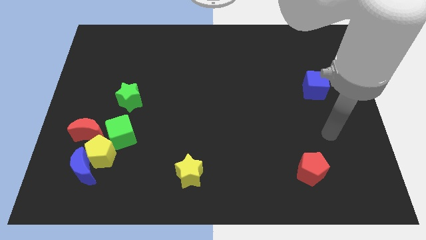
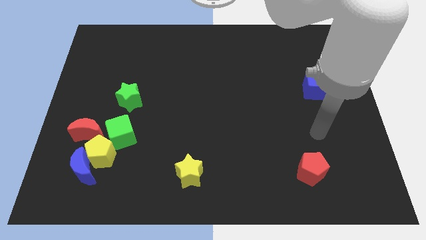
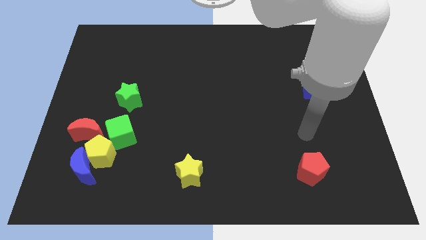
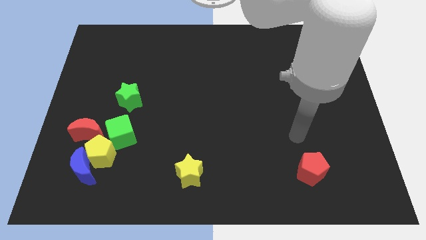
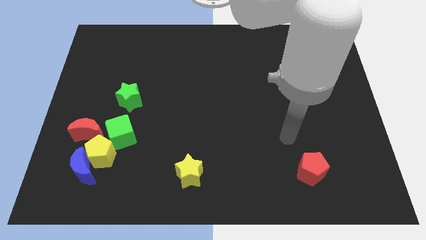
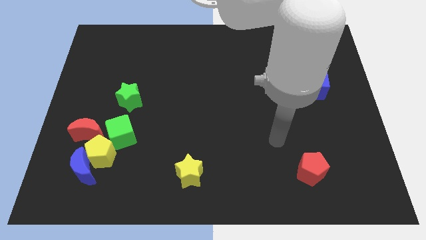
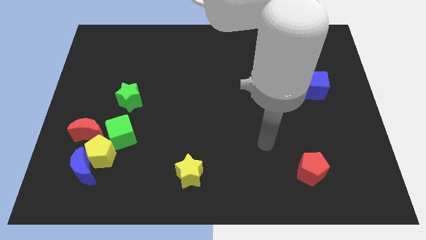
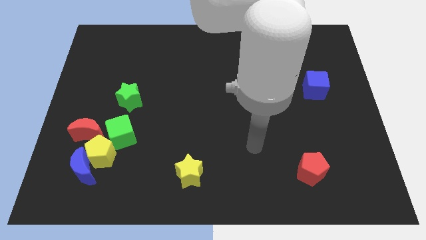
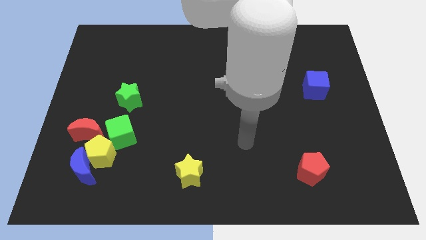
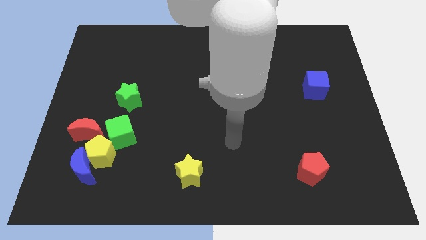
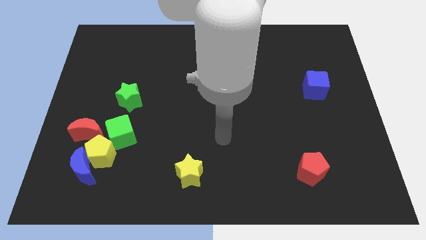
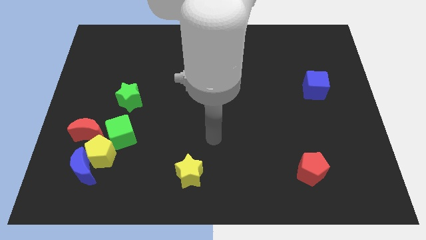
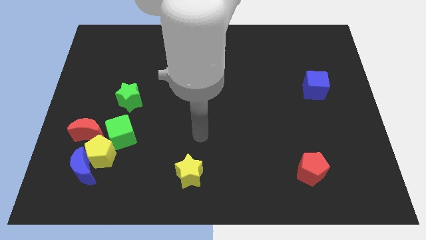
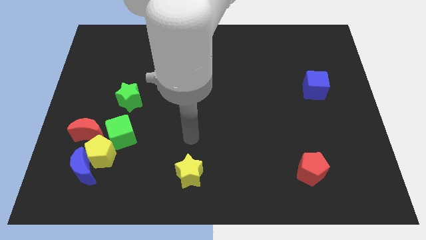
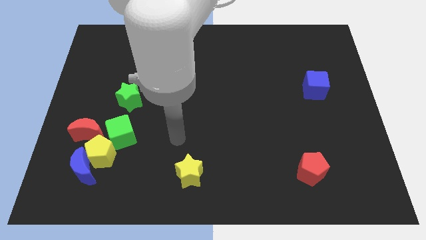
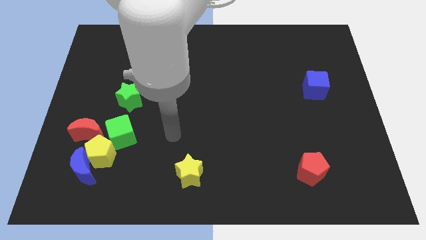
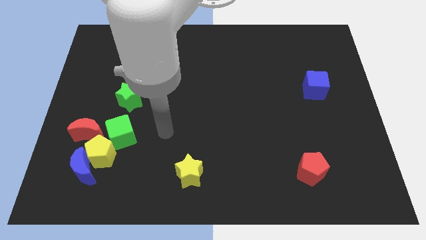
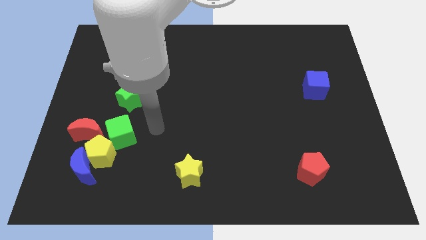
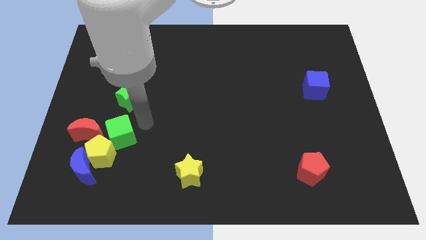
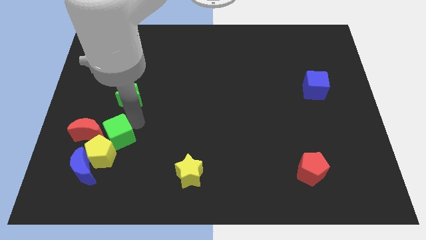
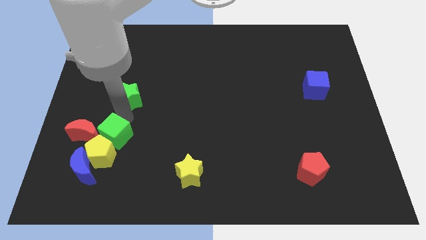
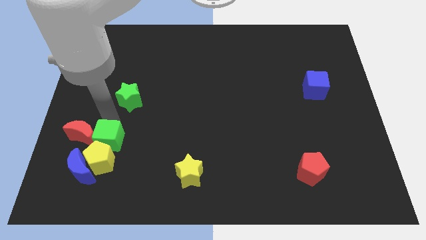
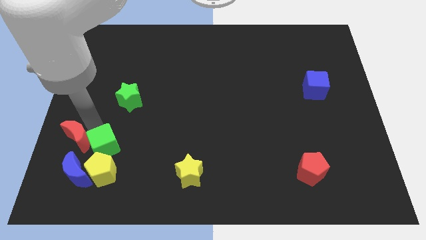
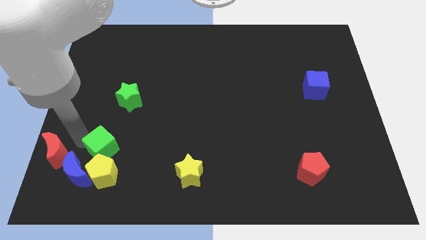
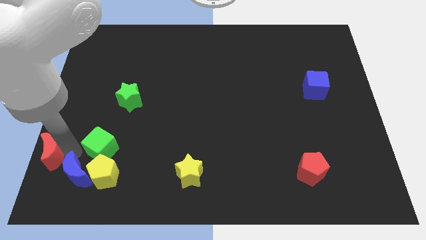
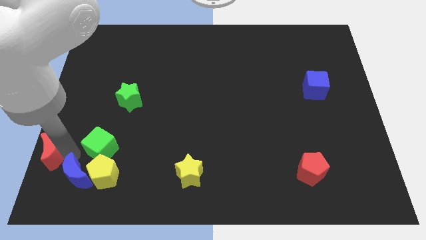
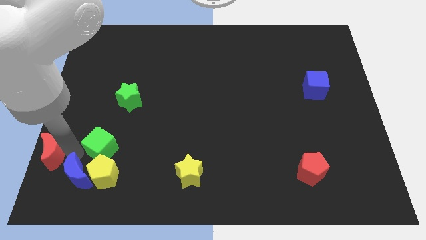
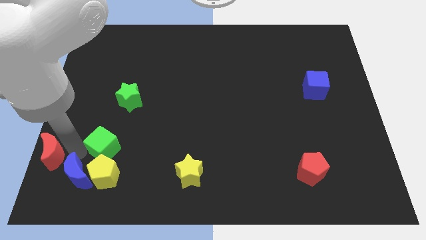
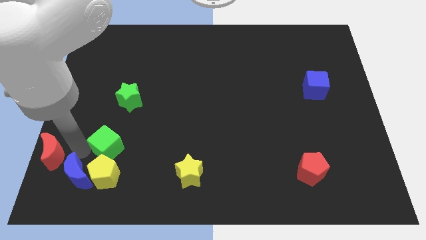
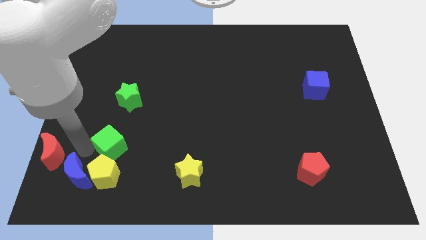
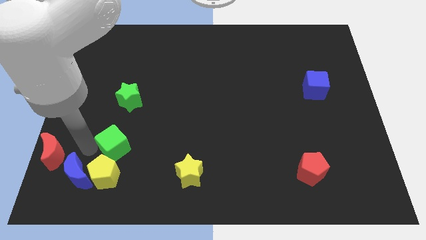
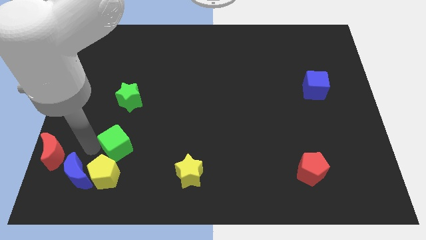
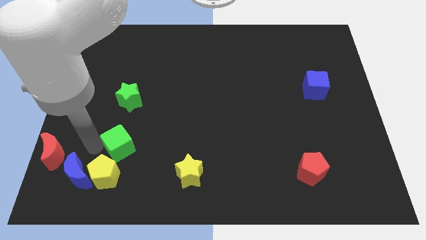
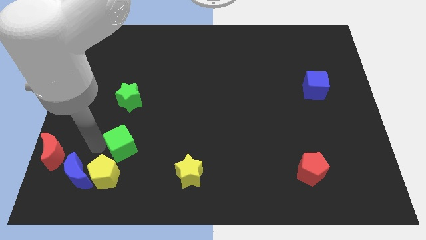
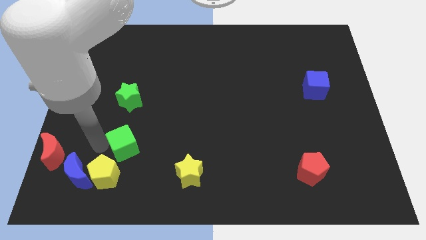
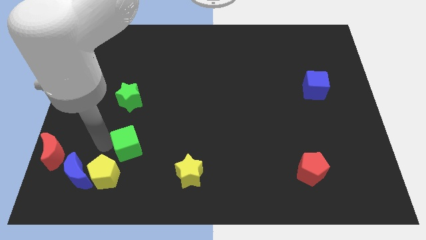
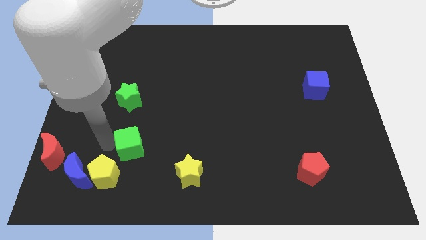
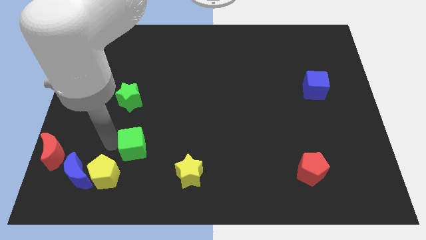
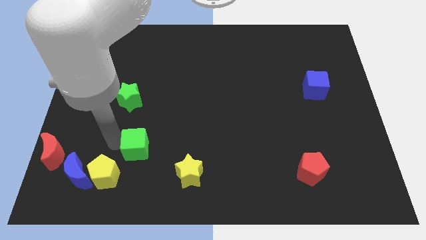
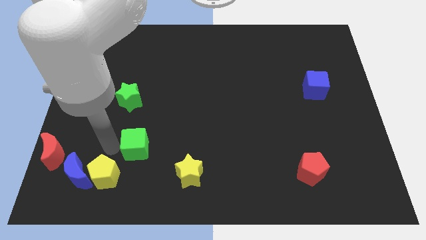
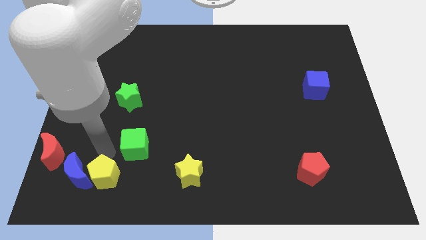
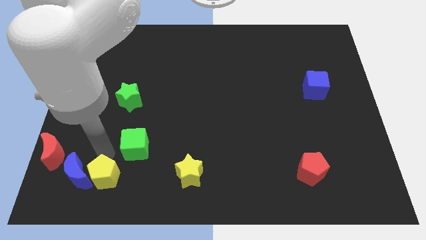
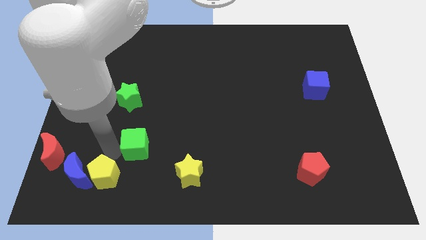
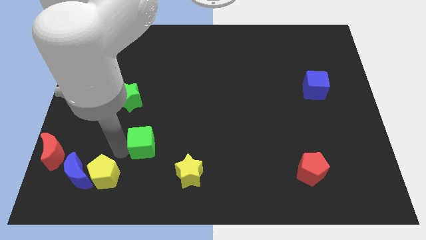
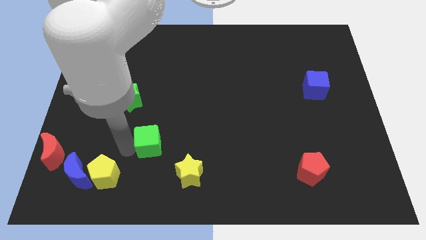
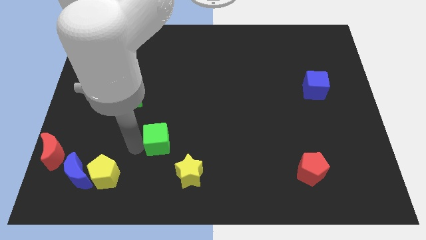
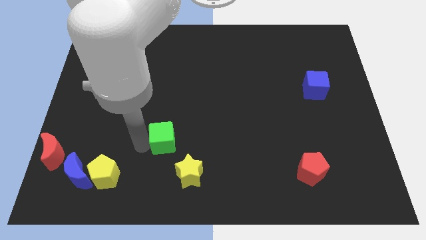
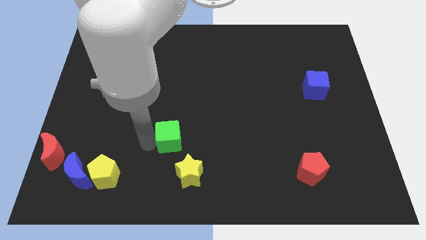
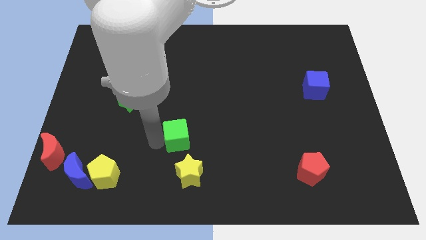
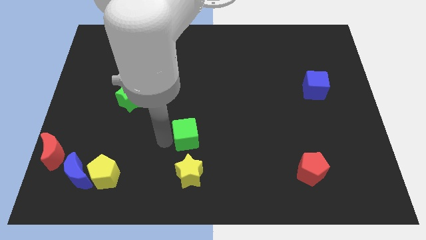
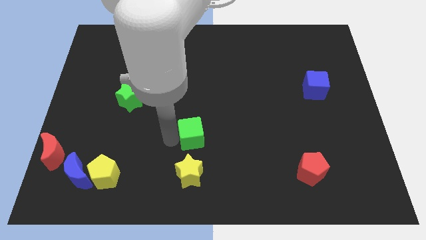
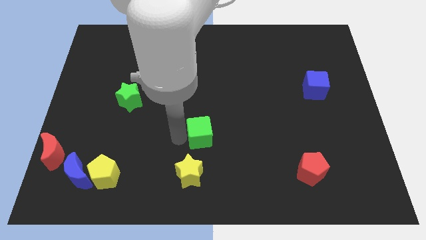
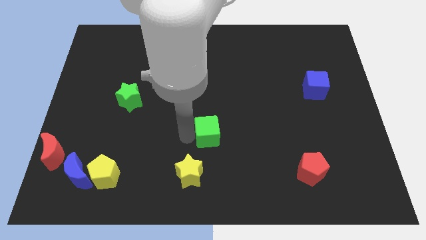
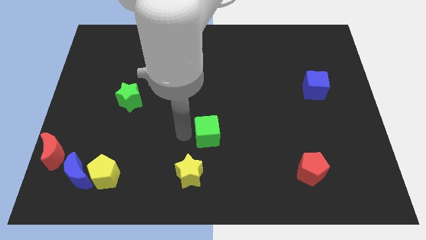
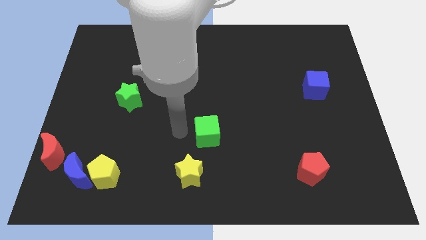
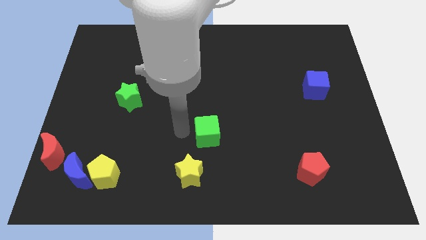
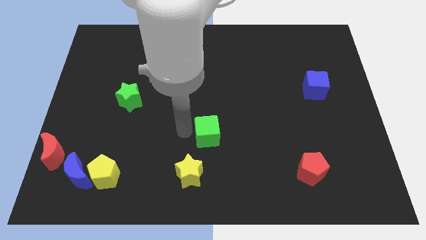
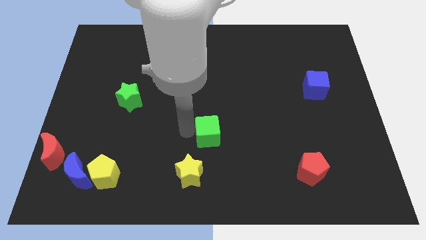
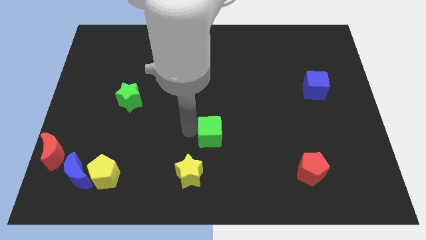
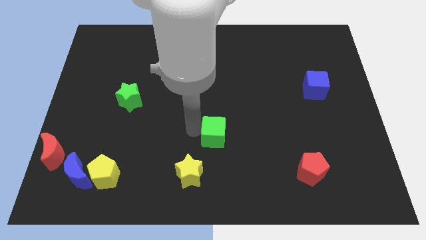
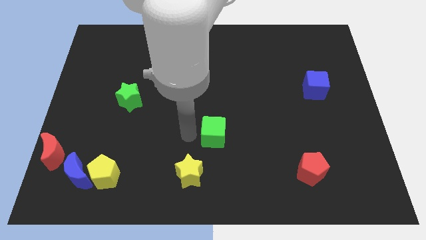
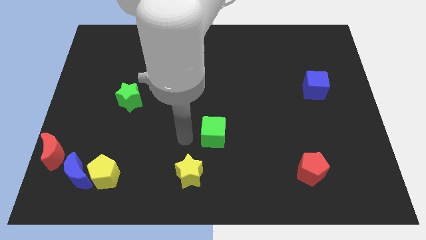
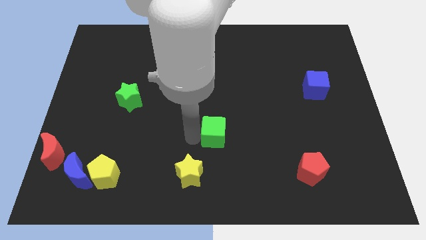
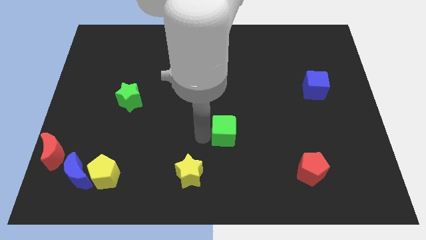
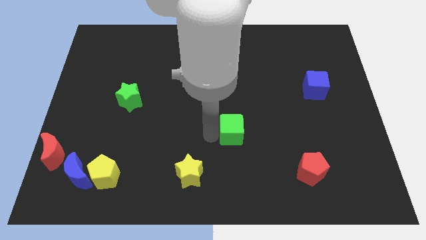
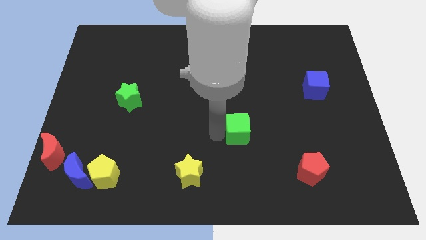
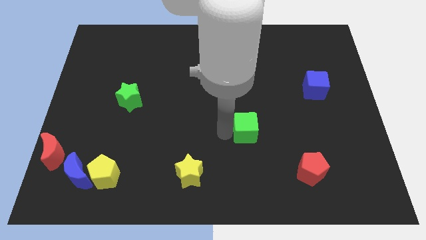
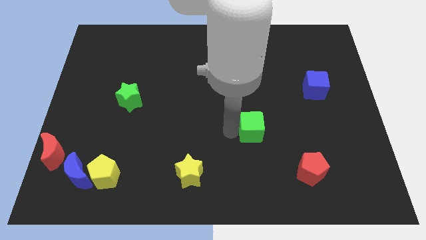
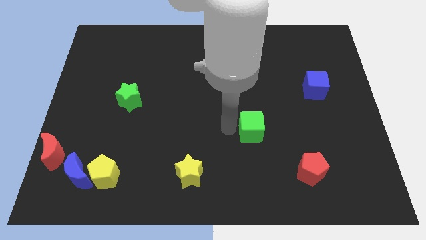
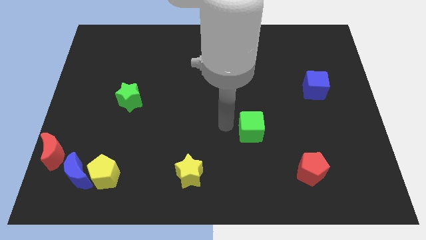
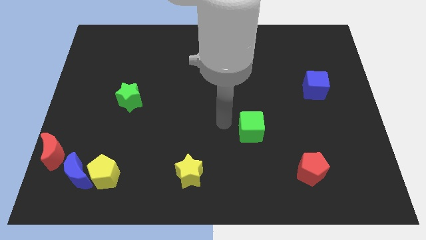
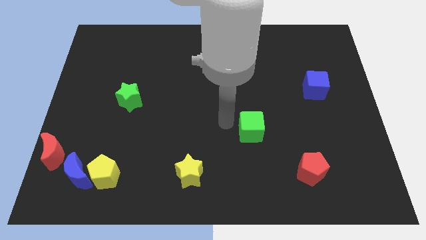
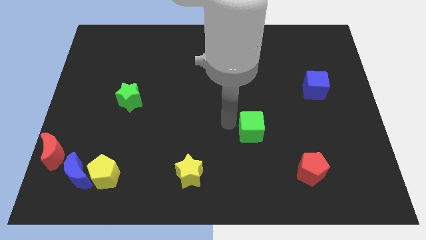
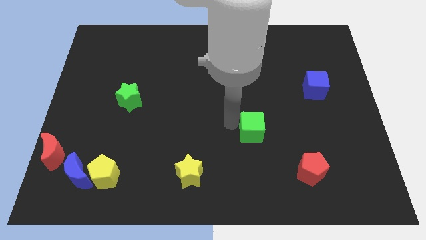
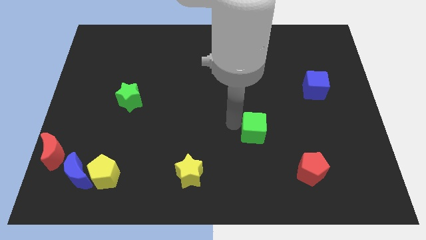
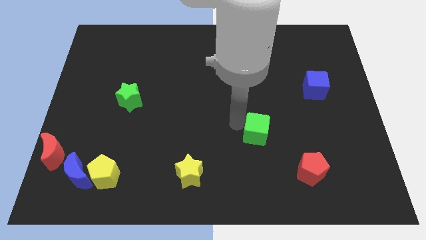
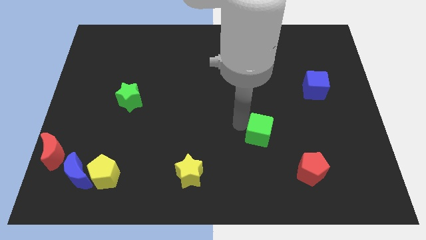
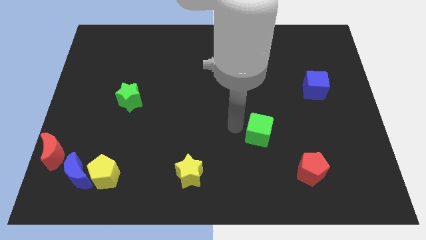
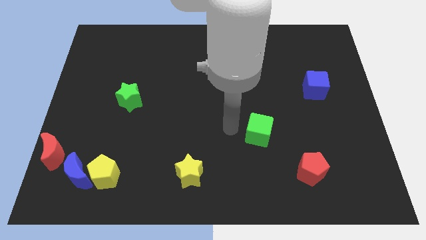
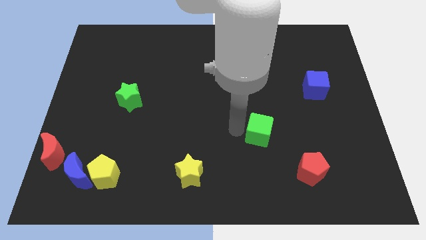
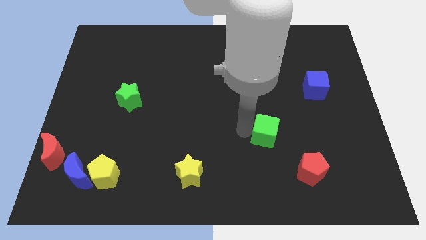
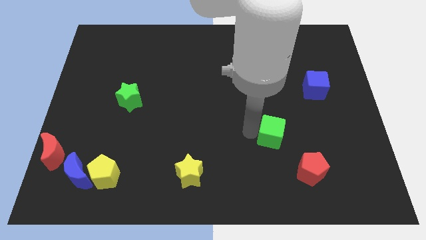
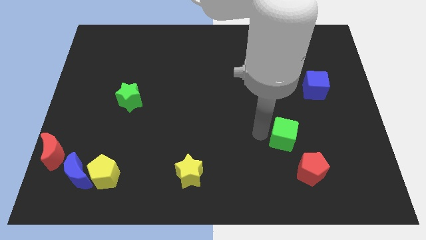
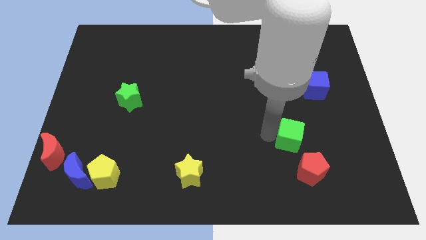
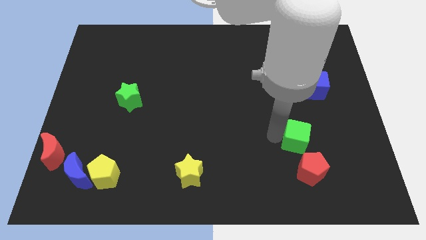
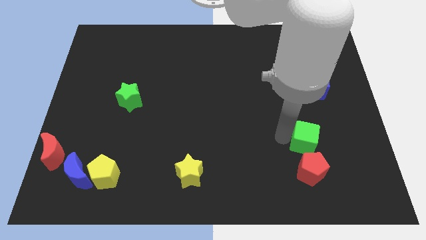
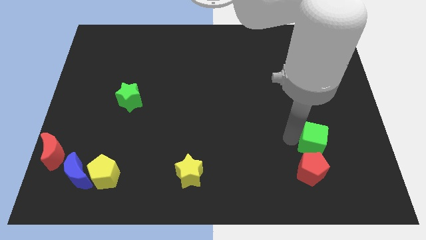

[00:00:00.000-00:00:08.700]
move the green cube to the top right side of the red pentagon
